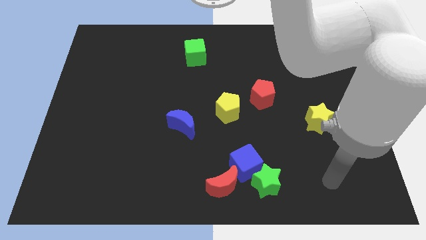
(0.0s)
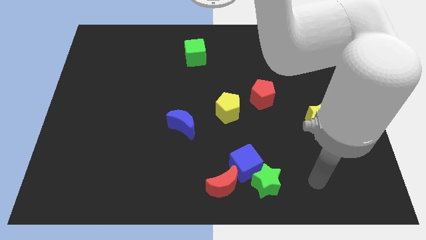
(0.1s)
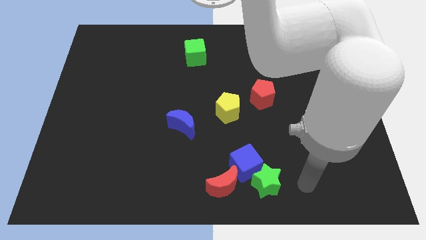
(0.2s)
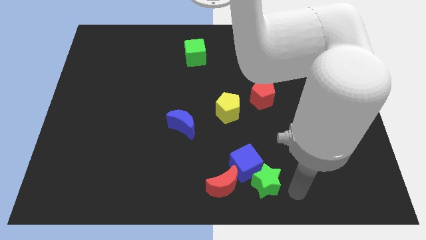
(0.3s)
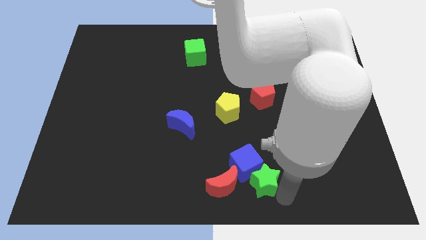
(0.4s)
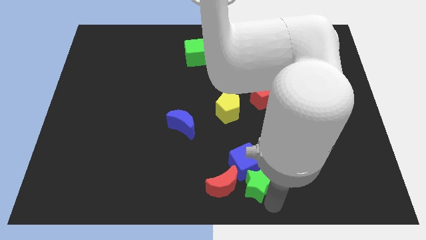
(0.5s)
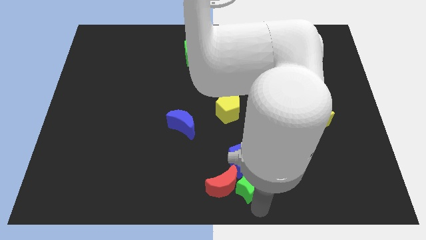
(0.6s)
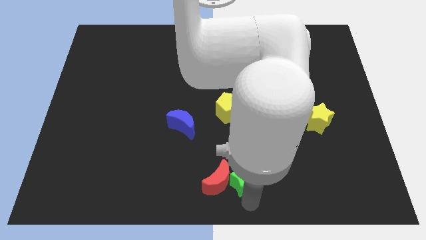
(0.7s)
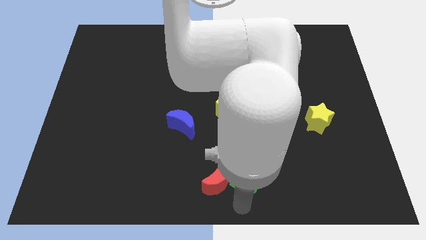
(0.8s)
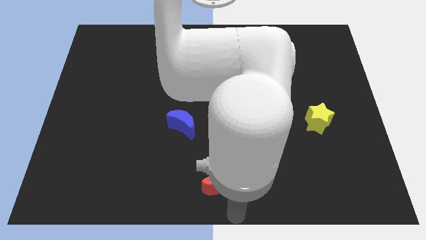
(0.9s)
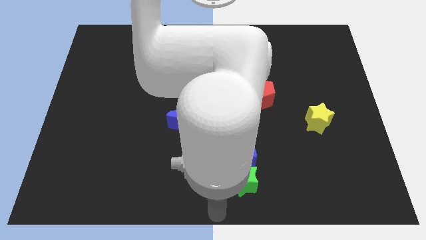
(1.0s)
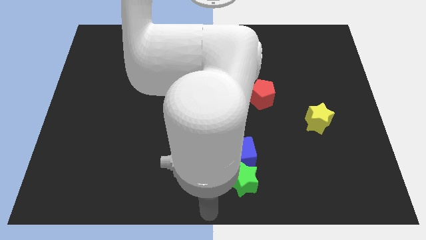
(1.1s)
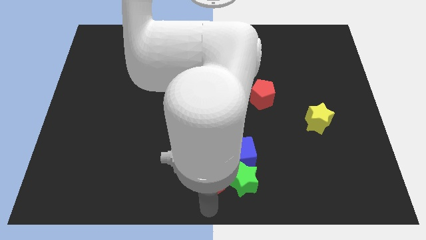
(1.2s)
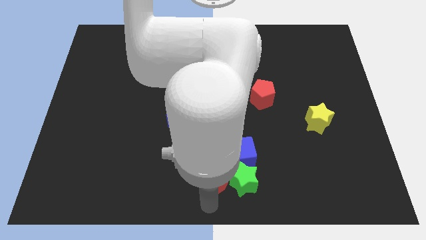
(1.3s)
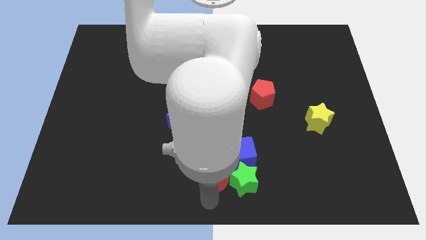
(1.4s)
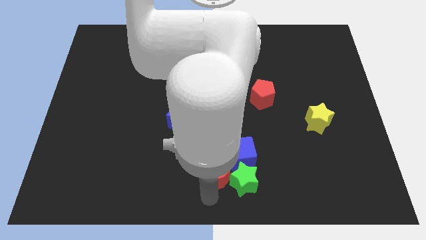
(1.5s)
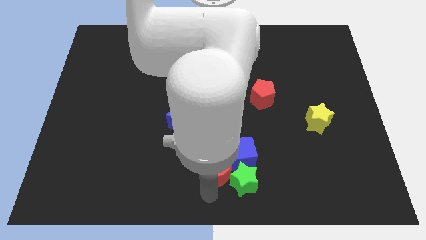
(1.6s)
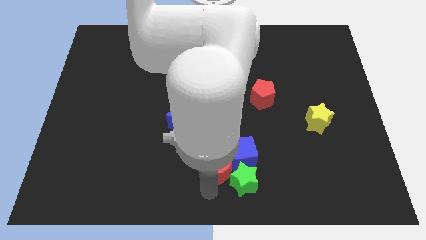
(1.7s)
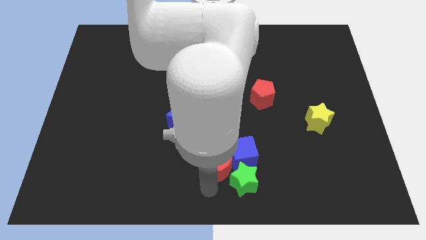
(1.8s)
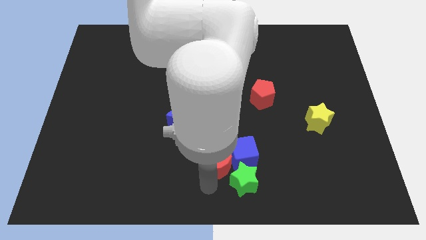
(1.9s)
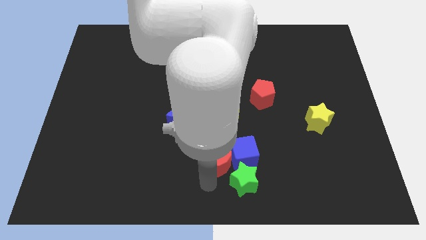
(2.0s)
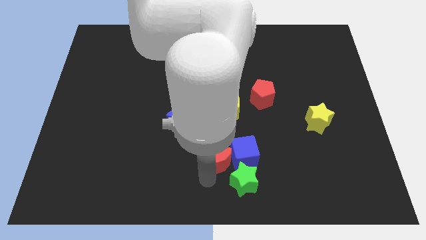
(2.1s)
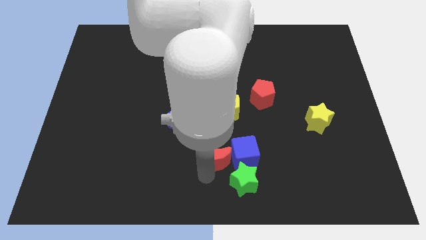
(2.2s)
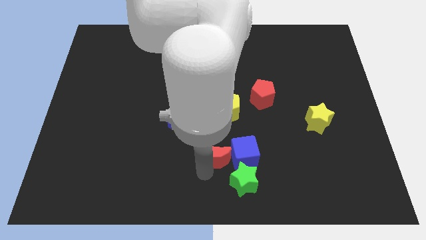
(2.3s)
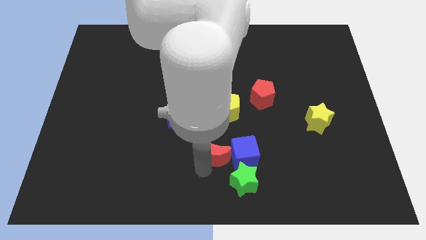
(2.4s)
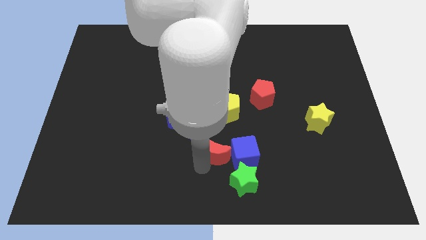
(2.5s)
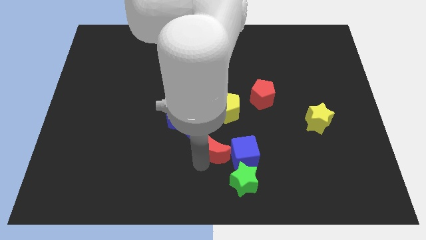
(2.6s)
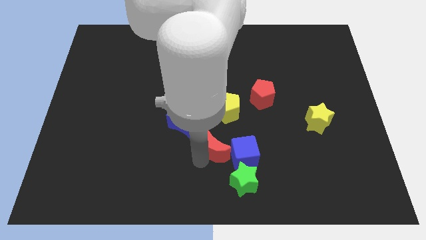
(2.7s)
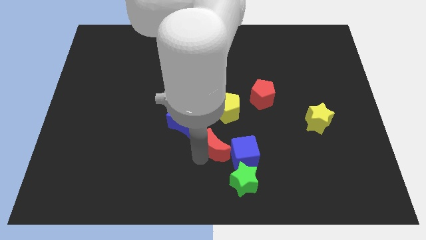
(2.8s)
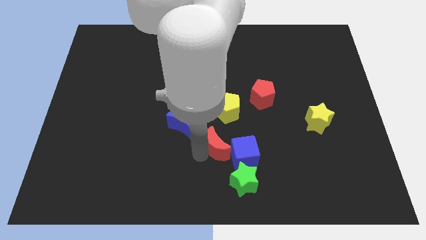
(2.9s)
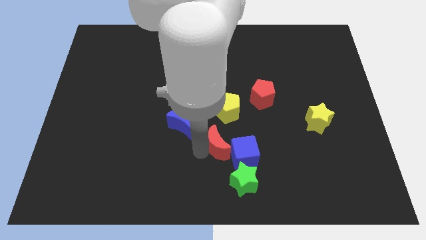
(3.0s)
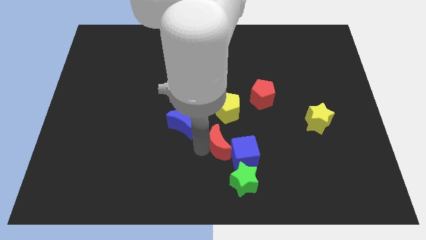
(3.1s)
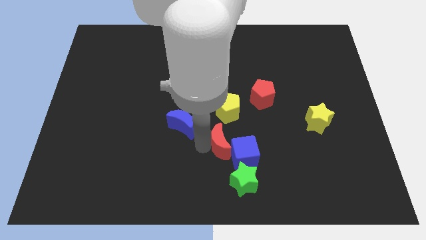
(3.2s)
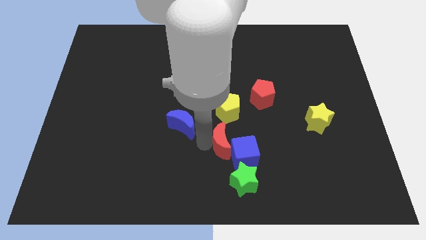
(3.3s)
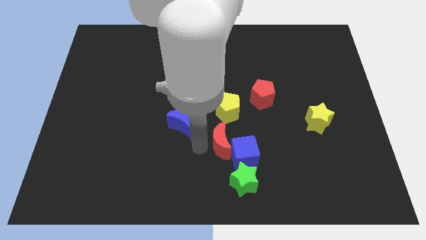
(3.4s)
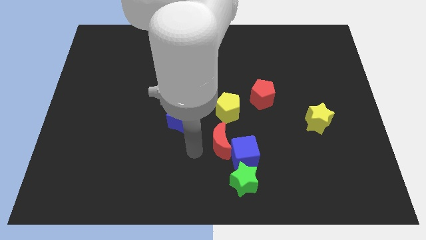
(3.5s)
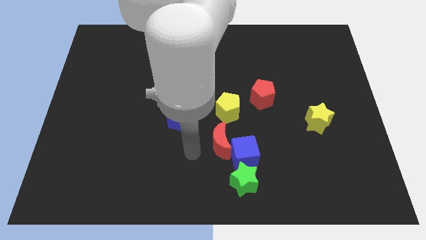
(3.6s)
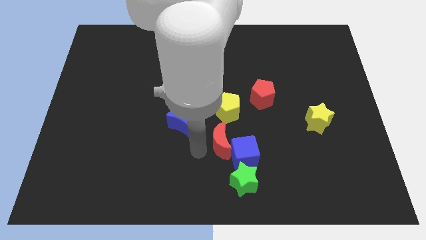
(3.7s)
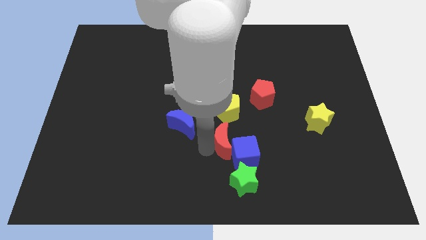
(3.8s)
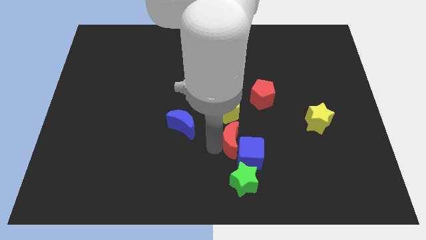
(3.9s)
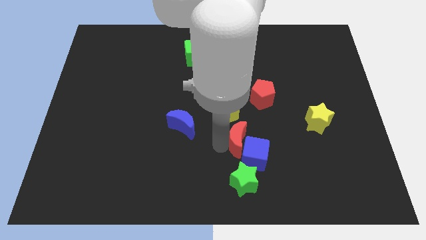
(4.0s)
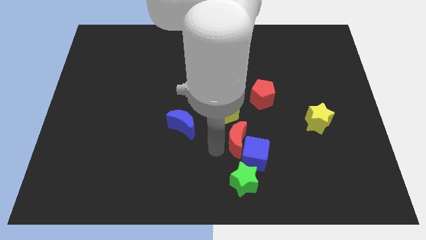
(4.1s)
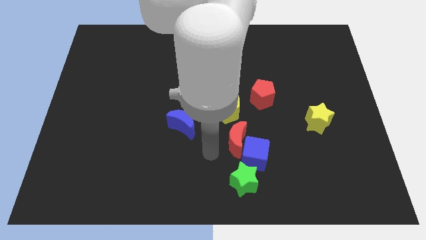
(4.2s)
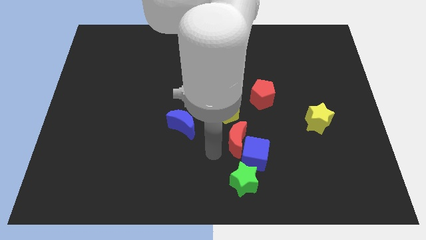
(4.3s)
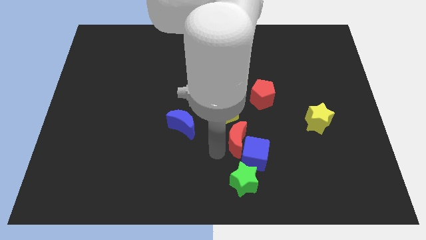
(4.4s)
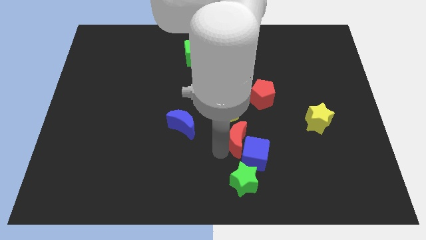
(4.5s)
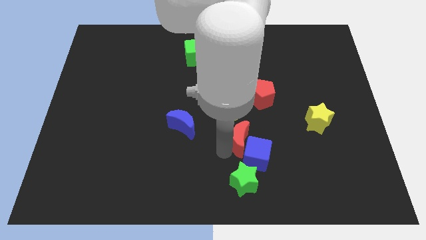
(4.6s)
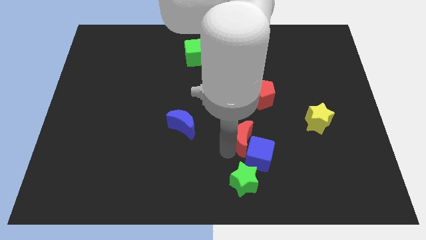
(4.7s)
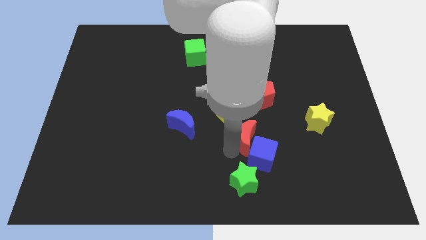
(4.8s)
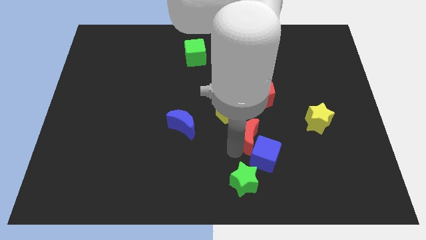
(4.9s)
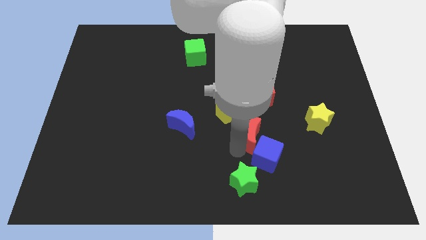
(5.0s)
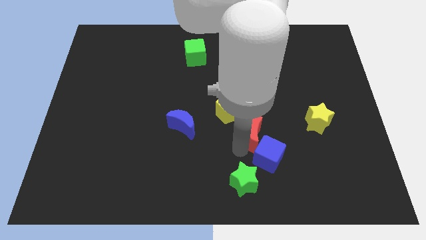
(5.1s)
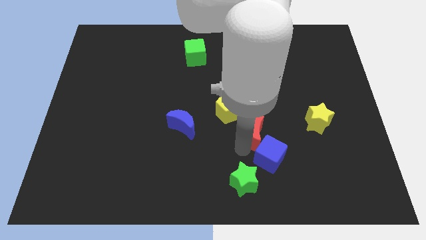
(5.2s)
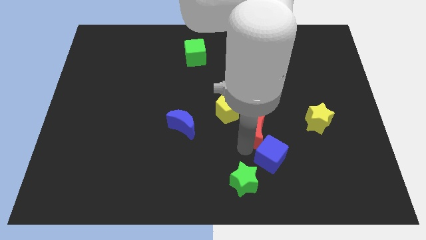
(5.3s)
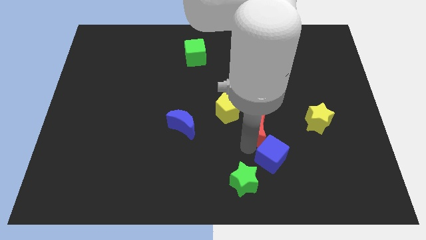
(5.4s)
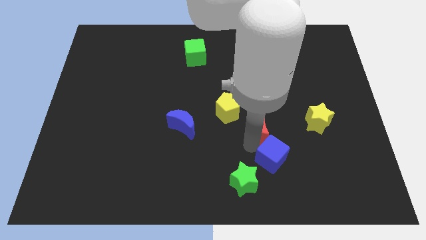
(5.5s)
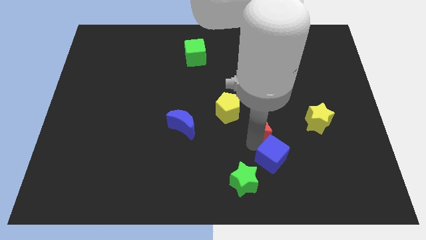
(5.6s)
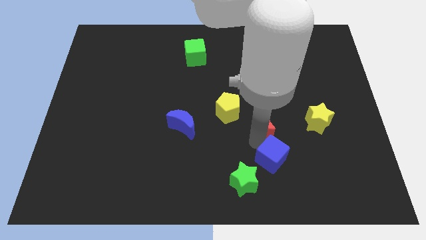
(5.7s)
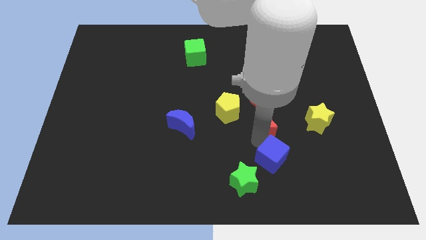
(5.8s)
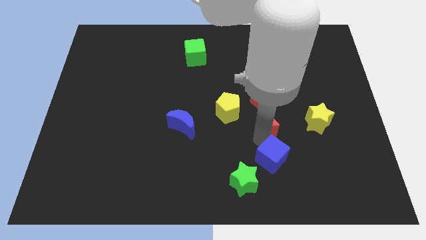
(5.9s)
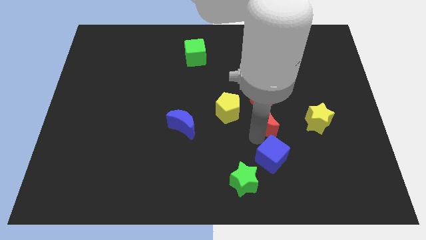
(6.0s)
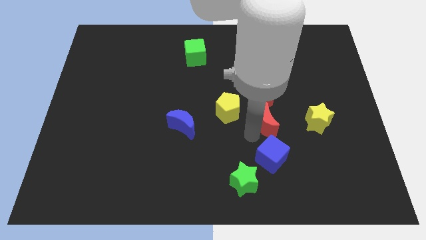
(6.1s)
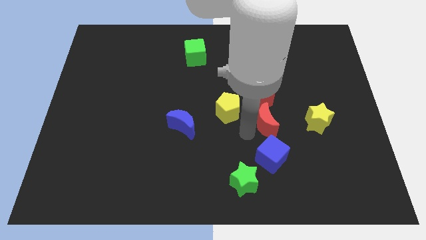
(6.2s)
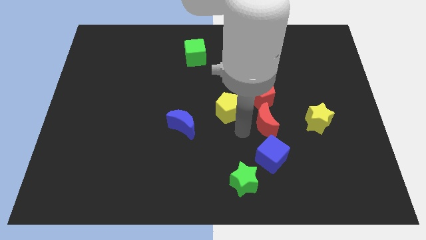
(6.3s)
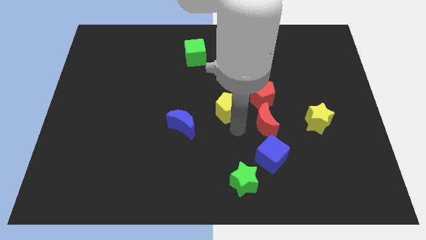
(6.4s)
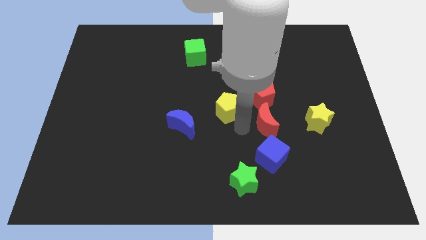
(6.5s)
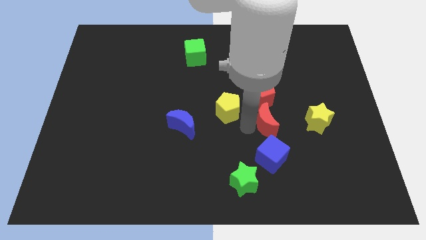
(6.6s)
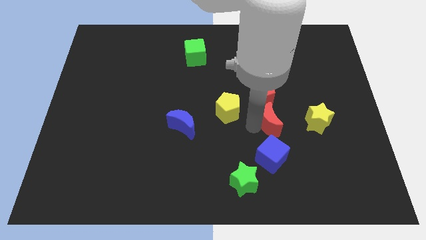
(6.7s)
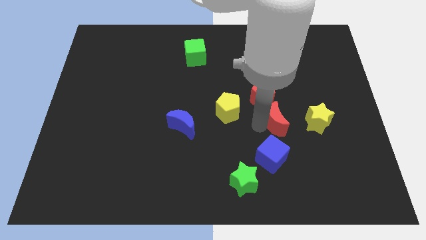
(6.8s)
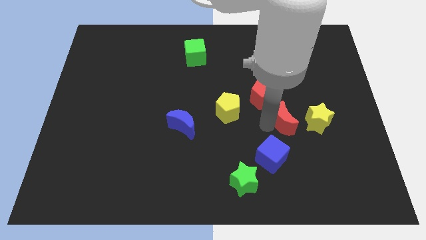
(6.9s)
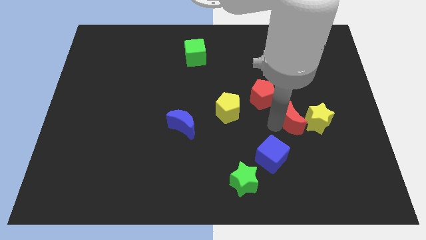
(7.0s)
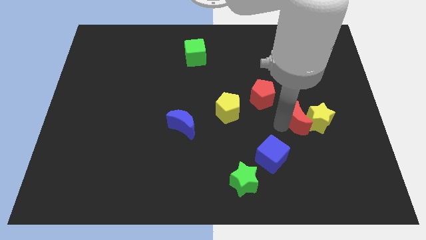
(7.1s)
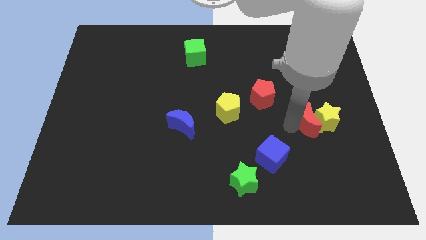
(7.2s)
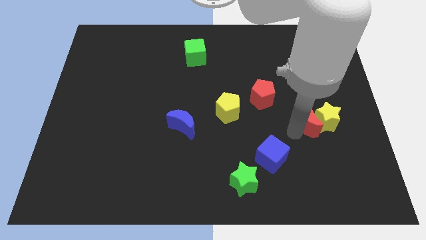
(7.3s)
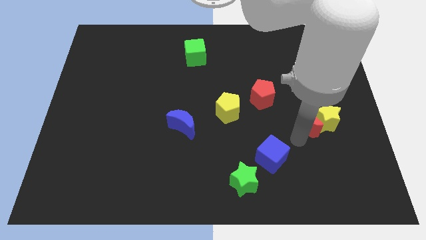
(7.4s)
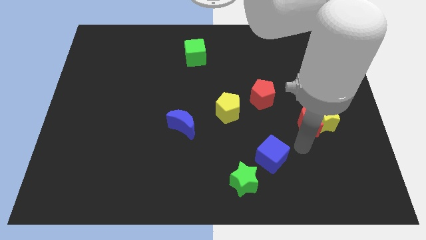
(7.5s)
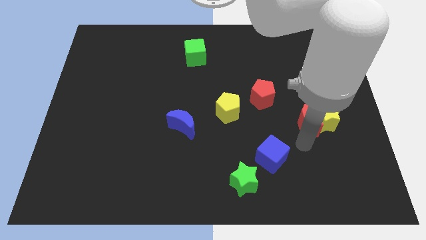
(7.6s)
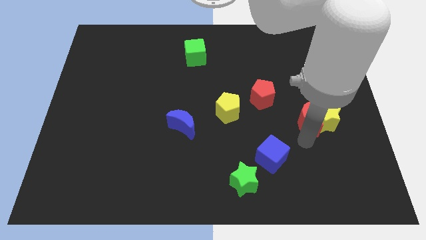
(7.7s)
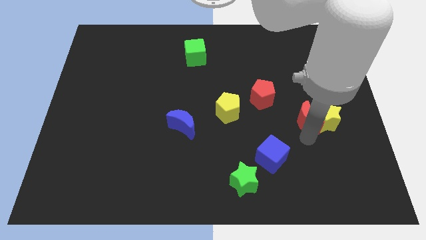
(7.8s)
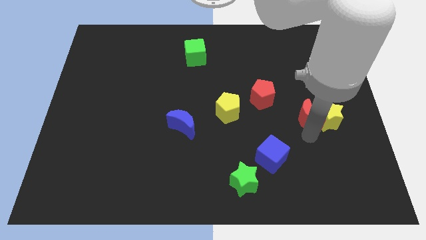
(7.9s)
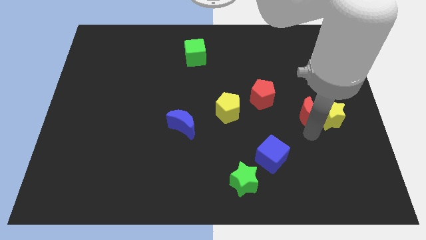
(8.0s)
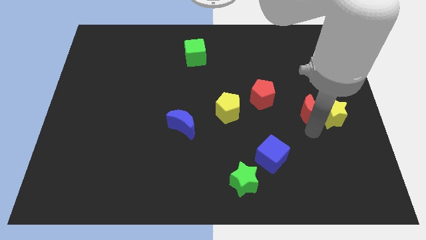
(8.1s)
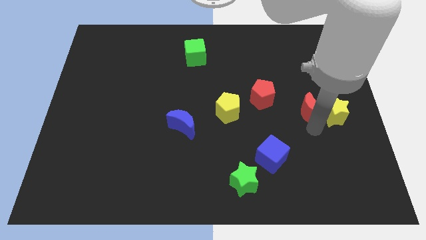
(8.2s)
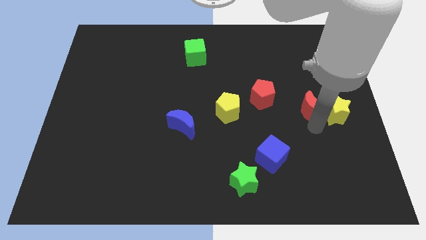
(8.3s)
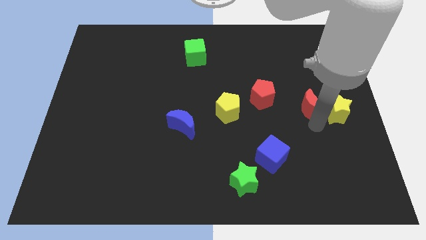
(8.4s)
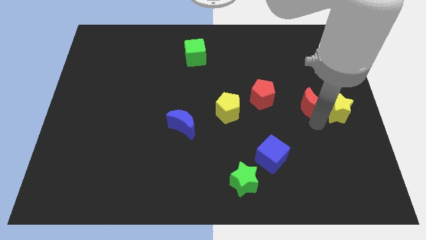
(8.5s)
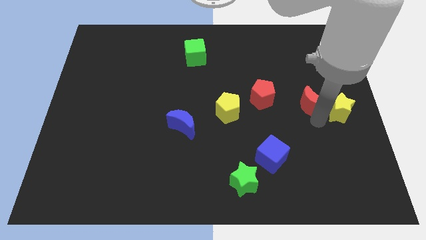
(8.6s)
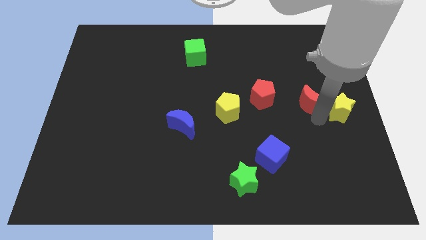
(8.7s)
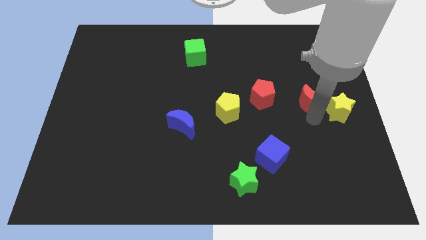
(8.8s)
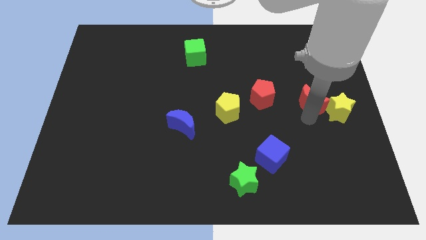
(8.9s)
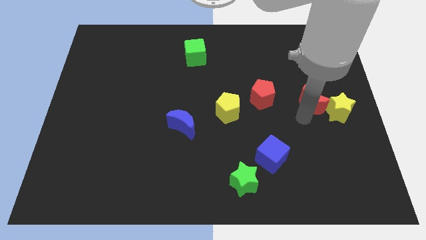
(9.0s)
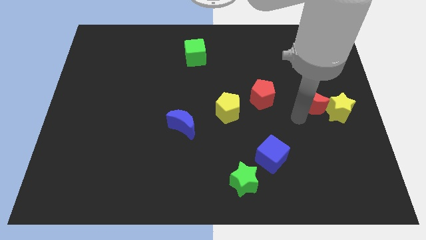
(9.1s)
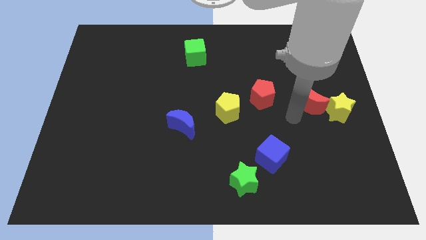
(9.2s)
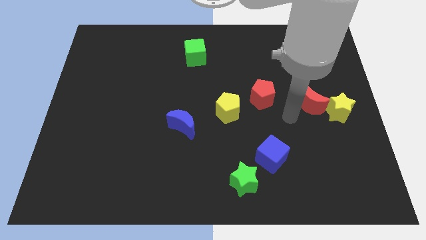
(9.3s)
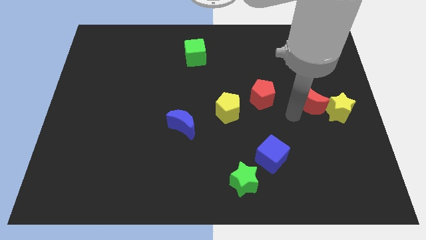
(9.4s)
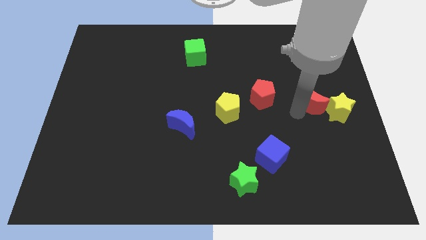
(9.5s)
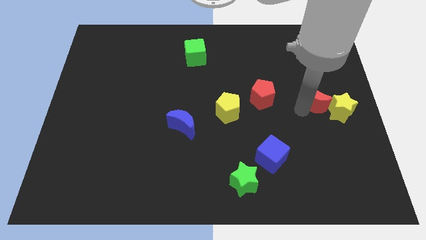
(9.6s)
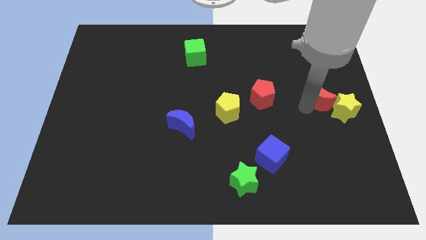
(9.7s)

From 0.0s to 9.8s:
put the red moon to the right side of the board
